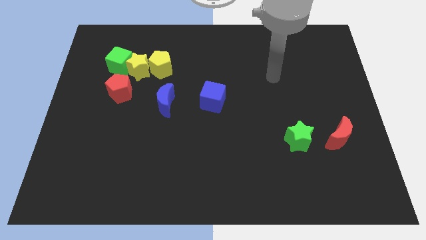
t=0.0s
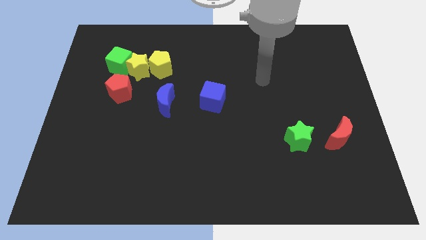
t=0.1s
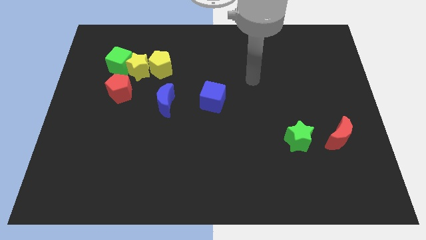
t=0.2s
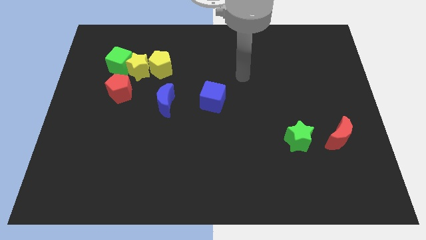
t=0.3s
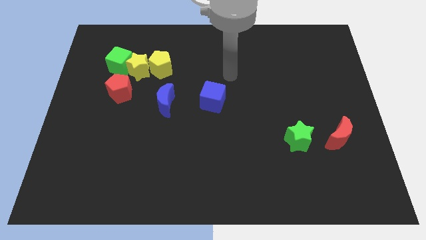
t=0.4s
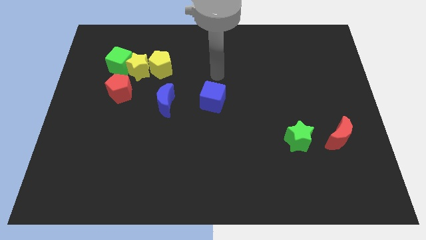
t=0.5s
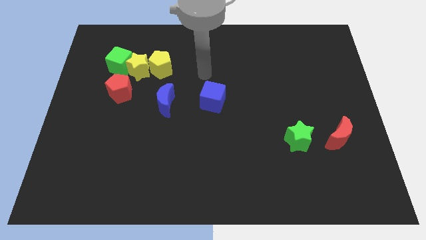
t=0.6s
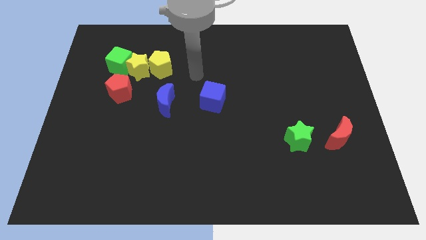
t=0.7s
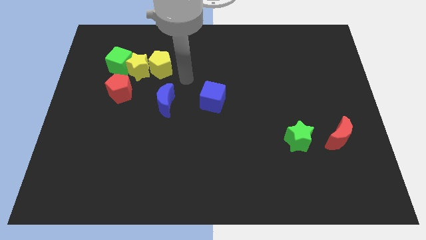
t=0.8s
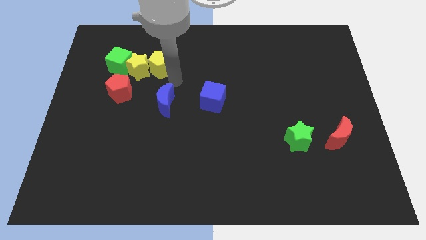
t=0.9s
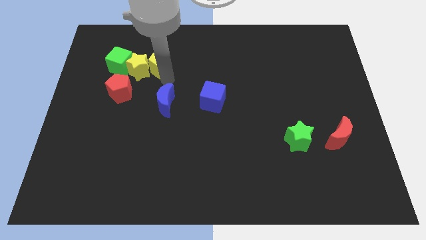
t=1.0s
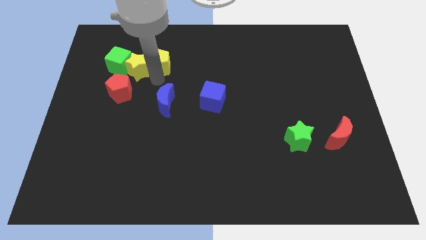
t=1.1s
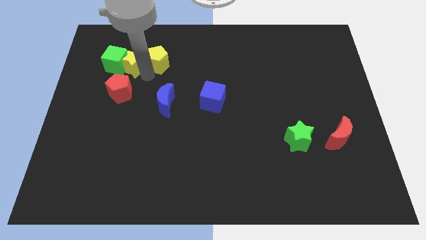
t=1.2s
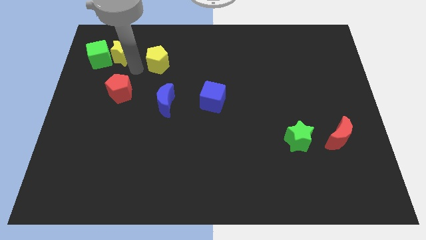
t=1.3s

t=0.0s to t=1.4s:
move the yellow pentagon away from the yellow star

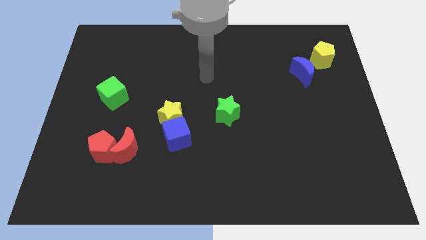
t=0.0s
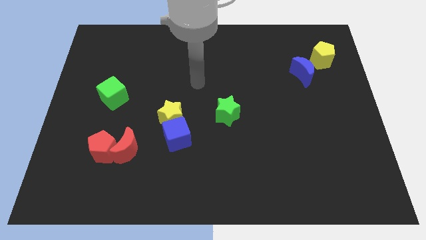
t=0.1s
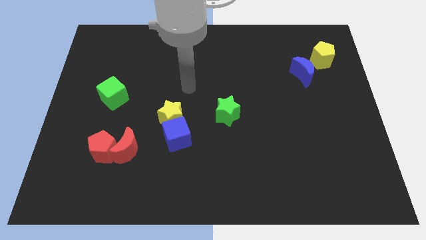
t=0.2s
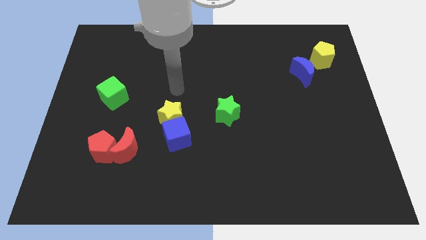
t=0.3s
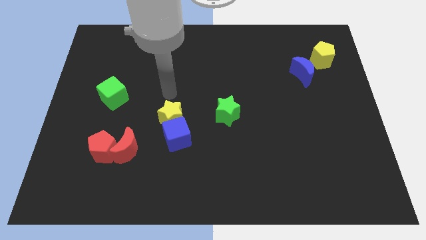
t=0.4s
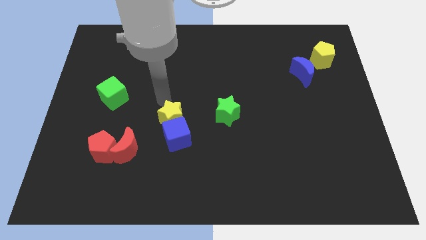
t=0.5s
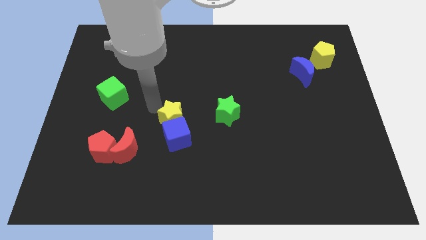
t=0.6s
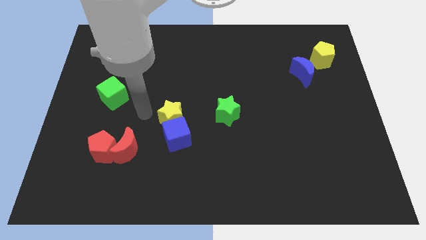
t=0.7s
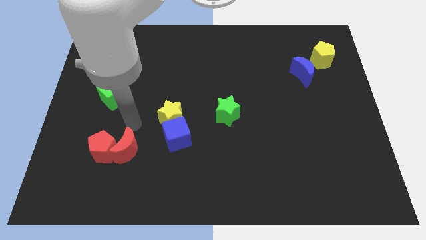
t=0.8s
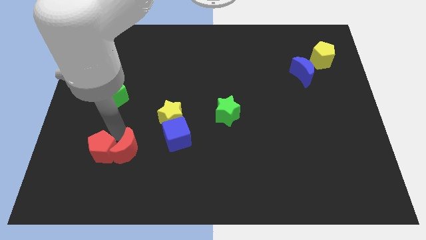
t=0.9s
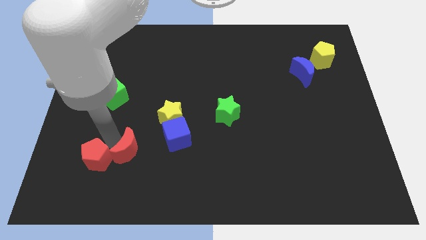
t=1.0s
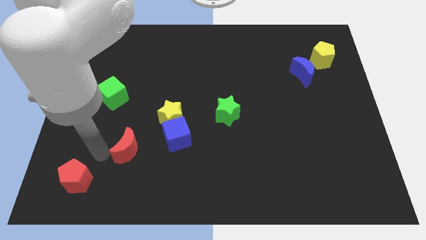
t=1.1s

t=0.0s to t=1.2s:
move the red moon away from the red pentagon

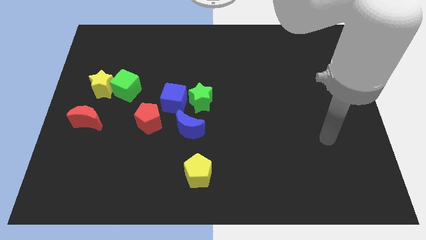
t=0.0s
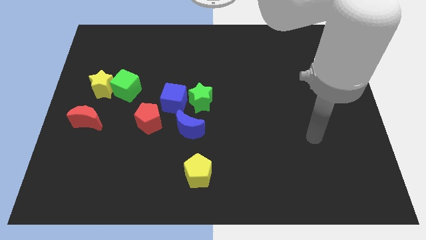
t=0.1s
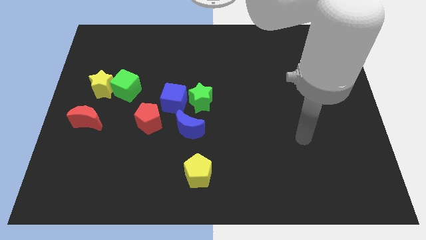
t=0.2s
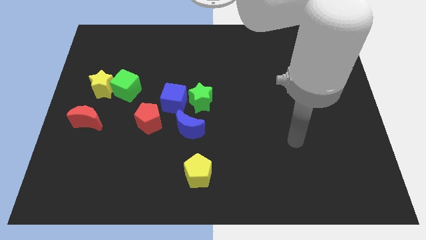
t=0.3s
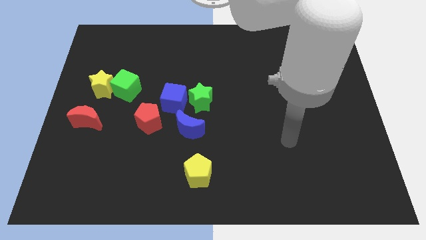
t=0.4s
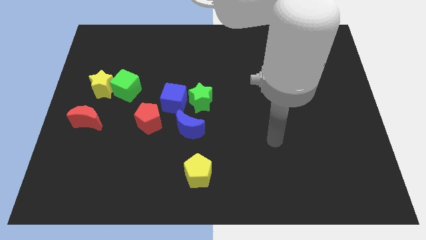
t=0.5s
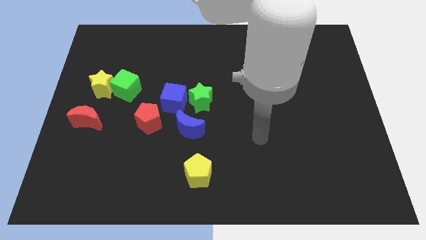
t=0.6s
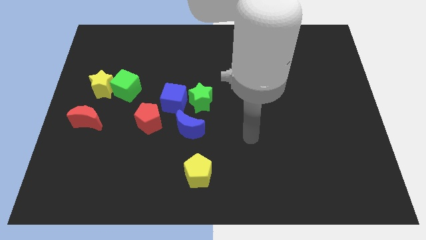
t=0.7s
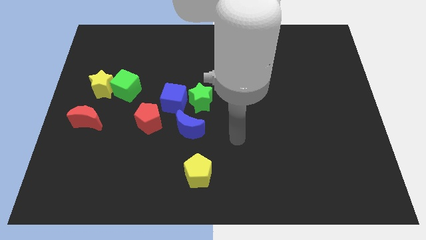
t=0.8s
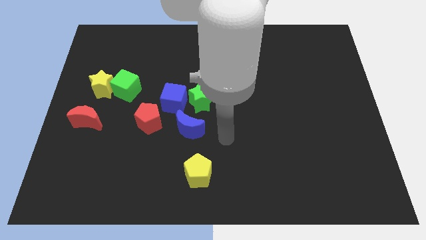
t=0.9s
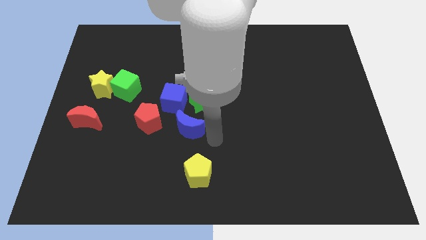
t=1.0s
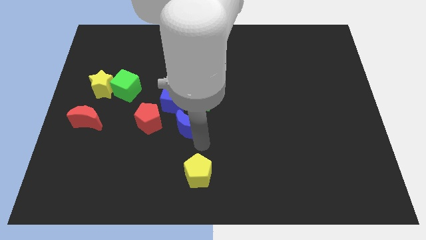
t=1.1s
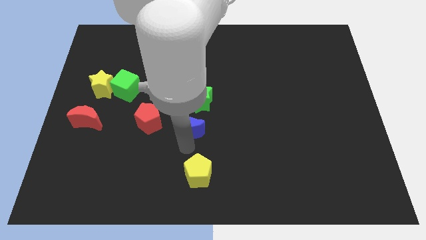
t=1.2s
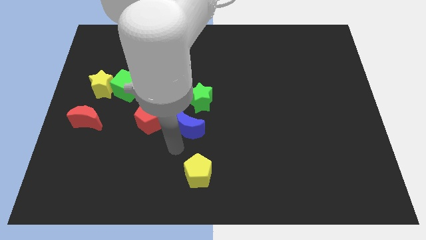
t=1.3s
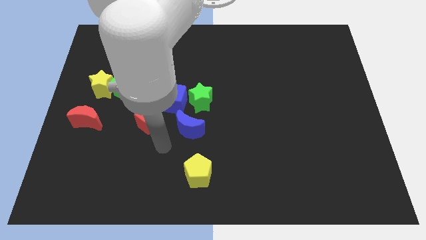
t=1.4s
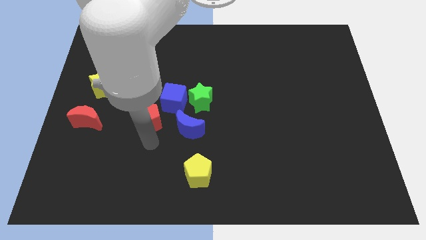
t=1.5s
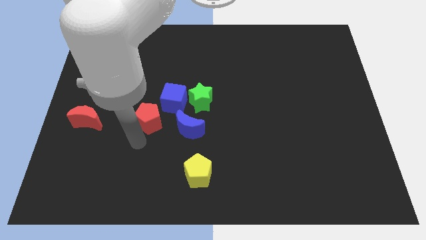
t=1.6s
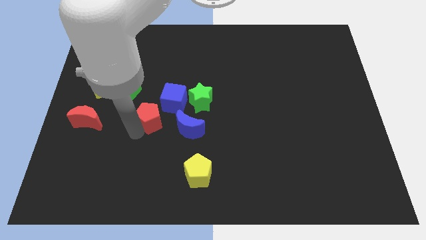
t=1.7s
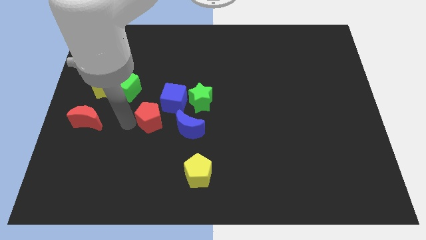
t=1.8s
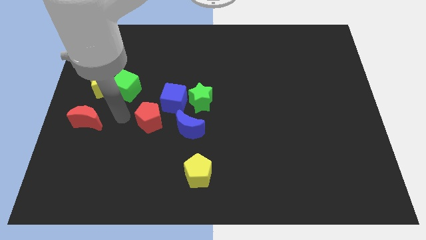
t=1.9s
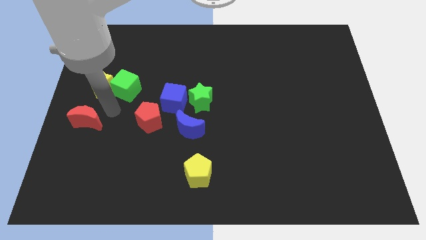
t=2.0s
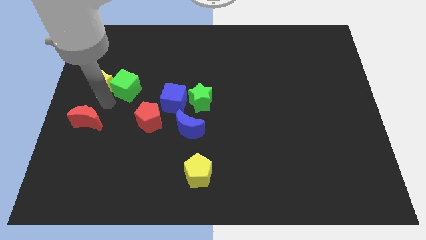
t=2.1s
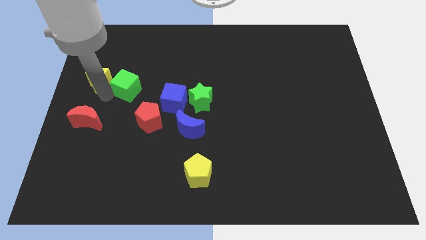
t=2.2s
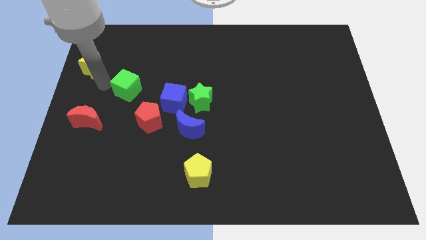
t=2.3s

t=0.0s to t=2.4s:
move the green cube away from the yellow star

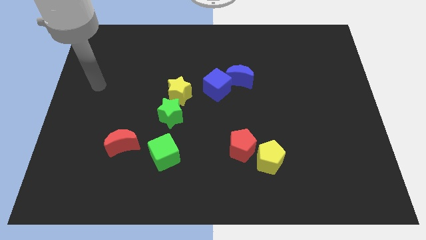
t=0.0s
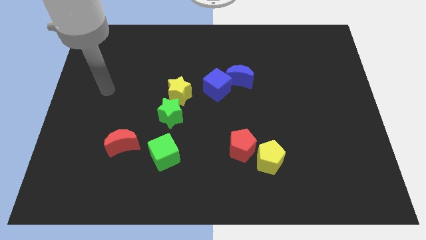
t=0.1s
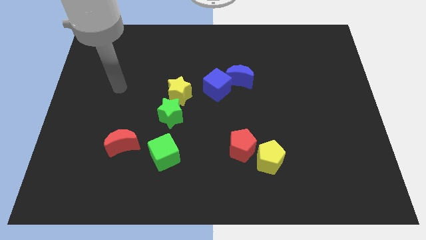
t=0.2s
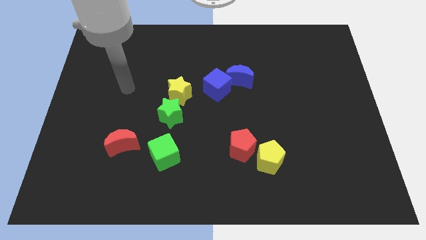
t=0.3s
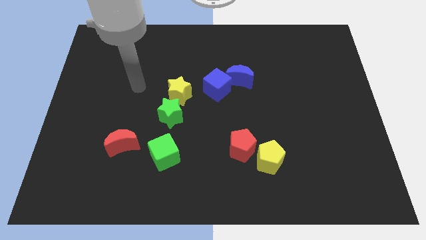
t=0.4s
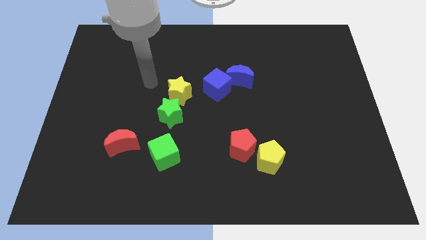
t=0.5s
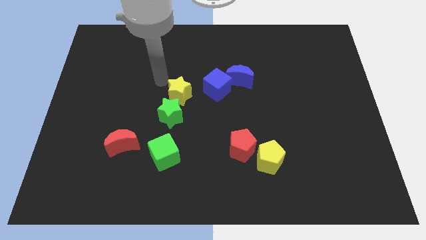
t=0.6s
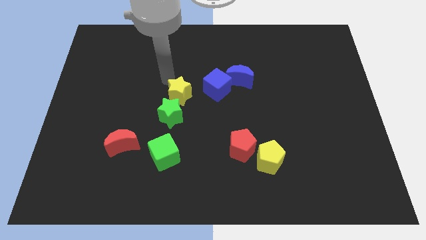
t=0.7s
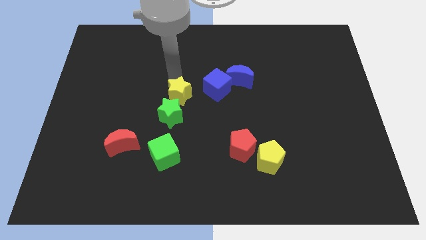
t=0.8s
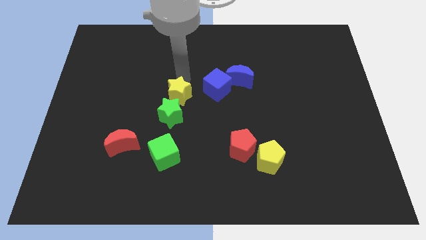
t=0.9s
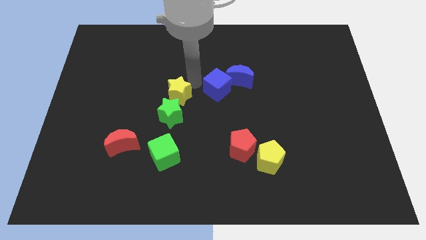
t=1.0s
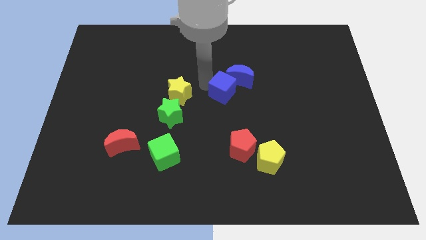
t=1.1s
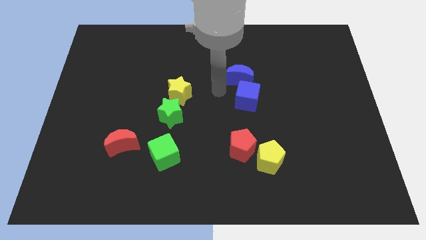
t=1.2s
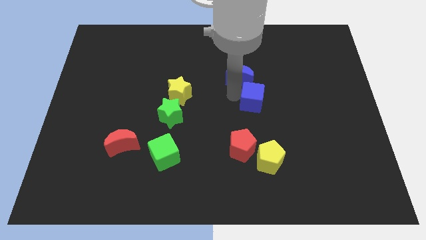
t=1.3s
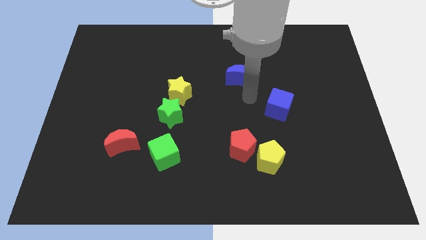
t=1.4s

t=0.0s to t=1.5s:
move the blue moon away from the blue cube

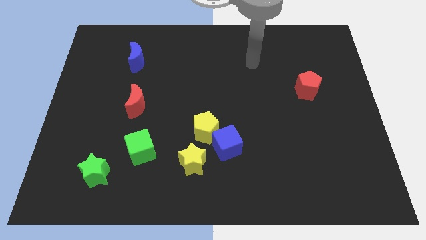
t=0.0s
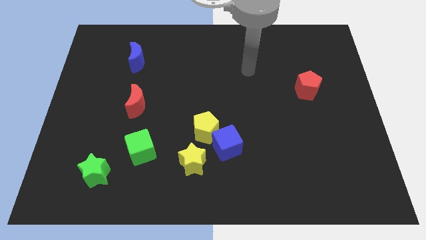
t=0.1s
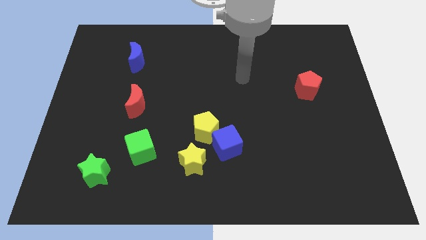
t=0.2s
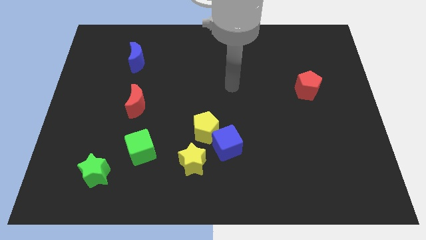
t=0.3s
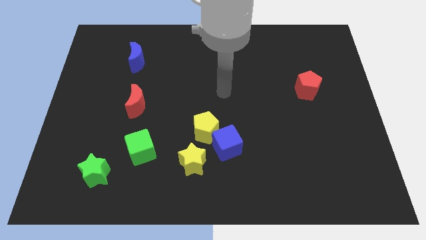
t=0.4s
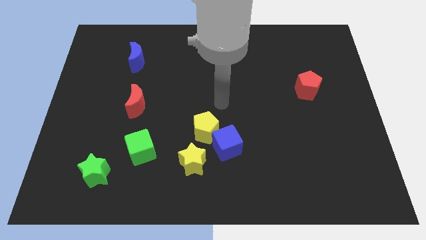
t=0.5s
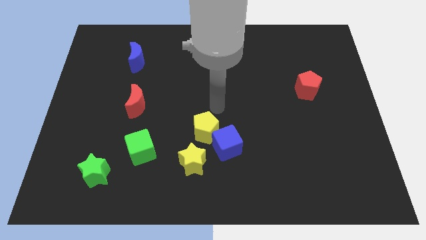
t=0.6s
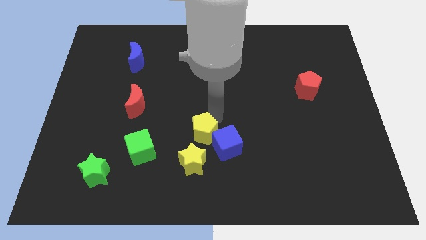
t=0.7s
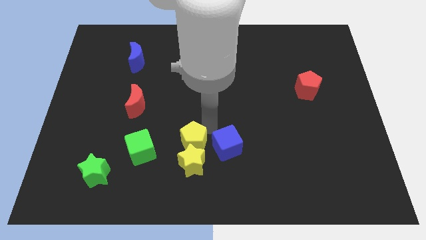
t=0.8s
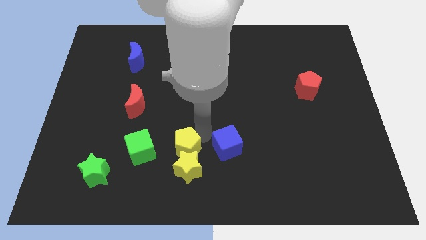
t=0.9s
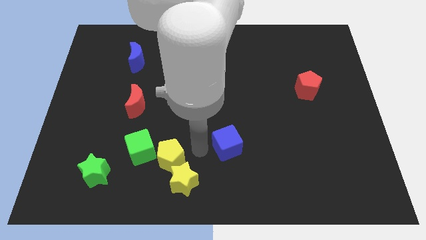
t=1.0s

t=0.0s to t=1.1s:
pull the blue cube apart from the yellow pentagon and yellow star

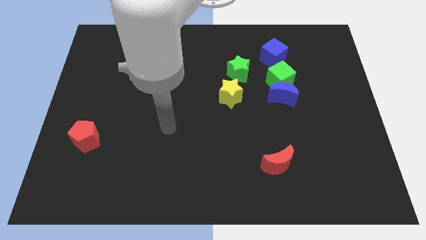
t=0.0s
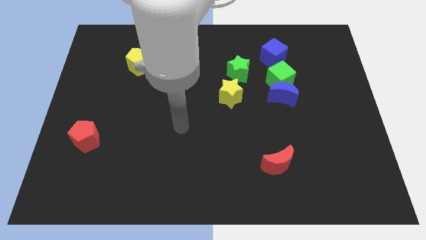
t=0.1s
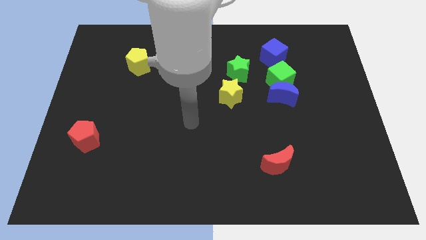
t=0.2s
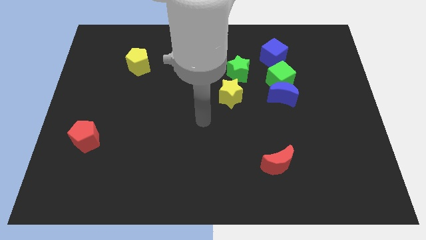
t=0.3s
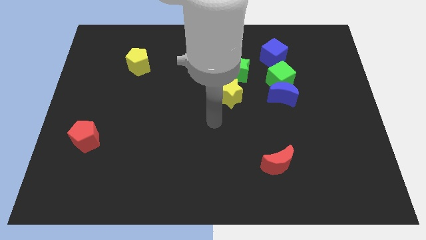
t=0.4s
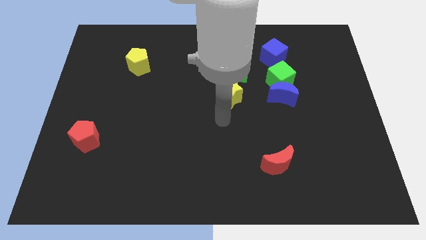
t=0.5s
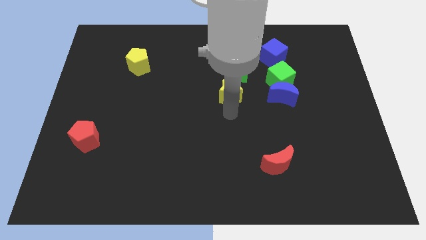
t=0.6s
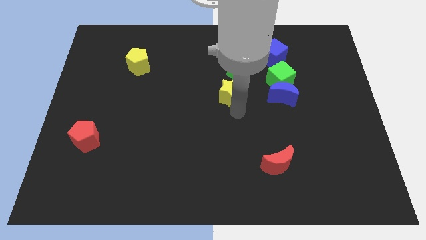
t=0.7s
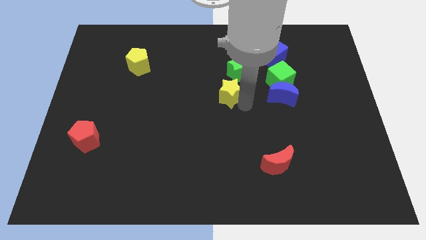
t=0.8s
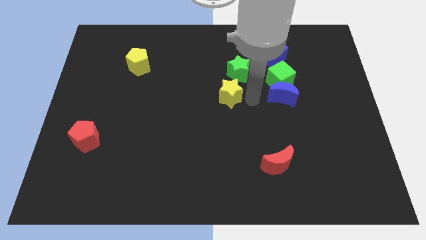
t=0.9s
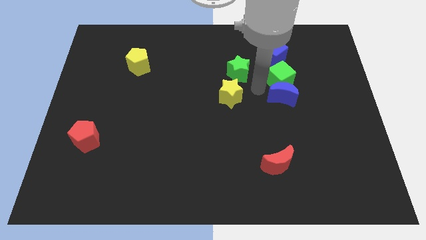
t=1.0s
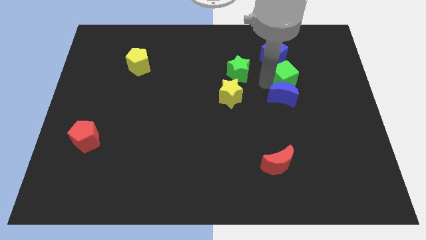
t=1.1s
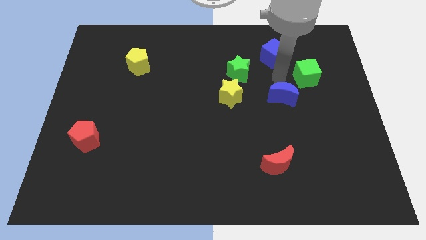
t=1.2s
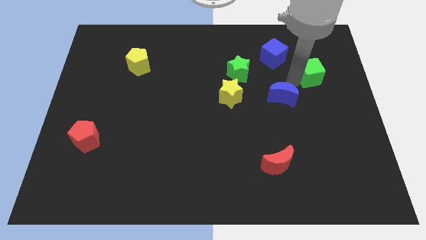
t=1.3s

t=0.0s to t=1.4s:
separate the blue moon from the green cube

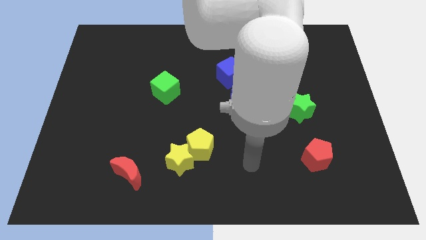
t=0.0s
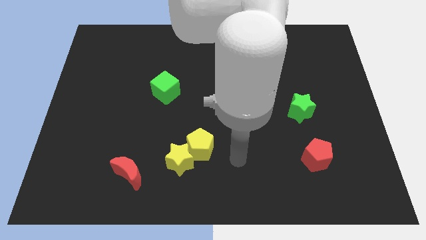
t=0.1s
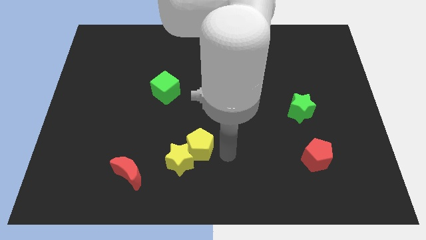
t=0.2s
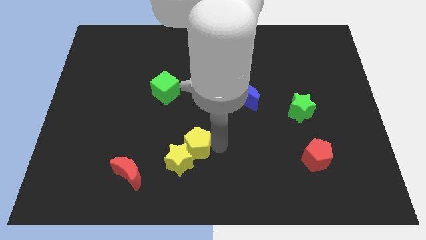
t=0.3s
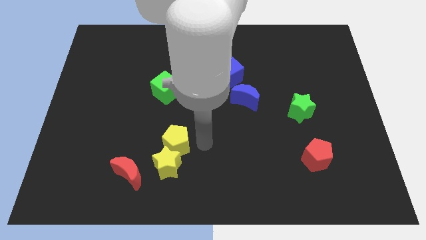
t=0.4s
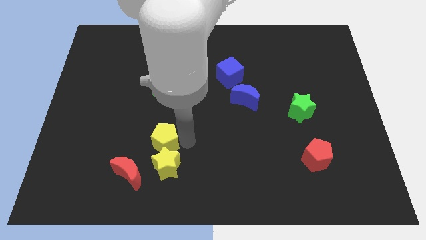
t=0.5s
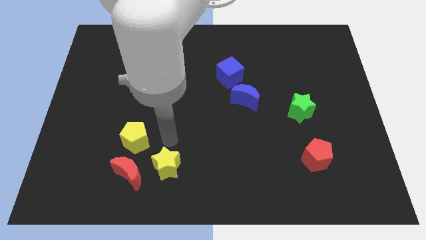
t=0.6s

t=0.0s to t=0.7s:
move the yellow star away from the yellow pentagon
